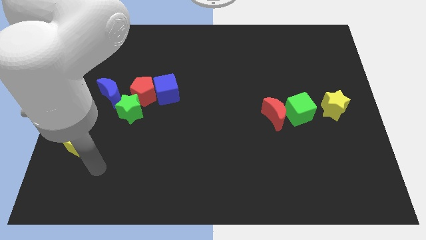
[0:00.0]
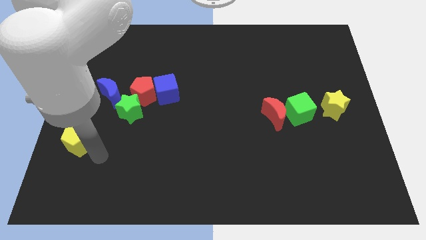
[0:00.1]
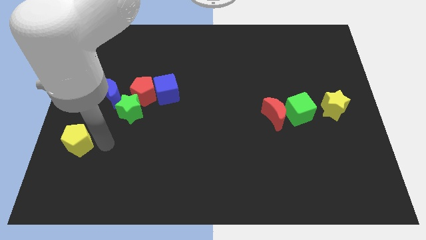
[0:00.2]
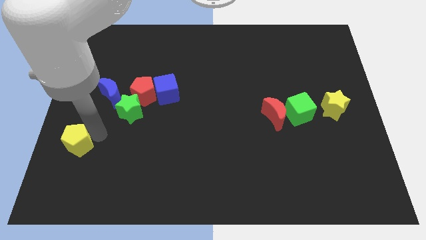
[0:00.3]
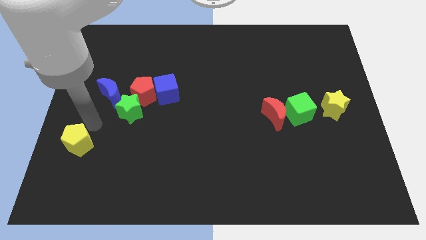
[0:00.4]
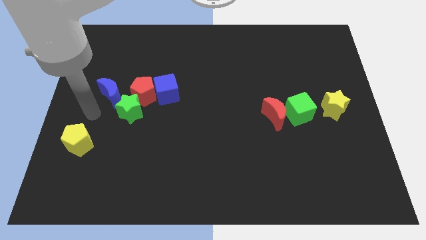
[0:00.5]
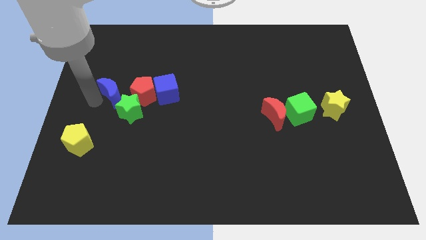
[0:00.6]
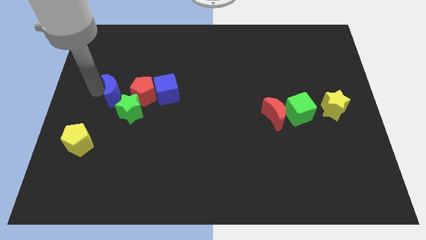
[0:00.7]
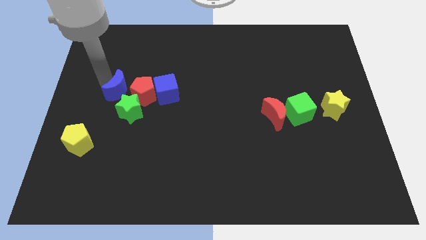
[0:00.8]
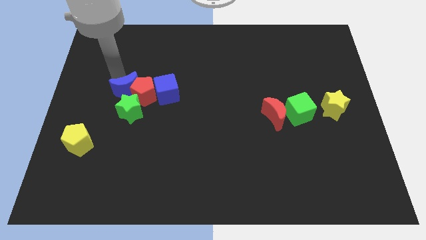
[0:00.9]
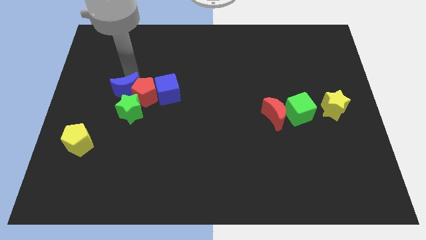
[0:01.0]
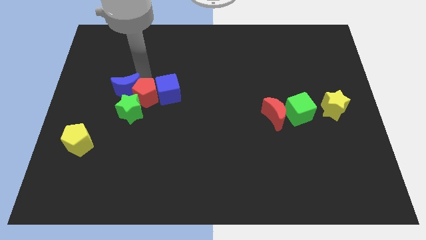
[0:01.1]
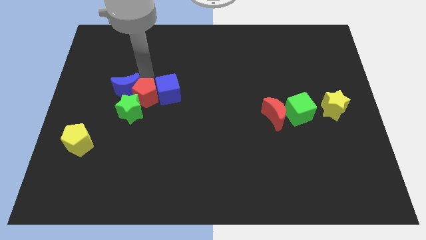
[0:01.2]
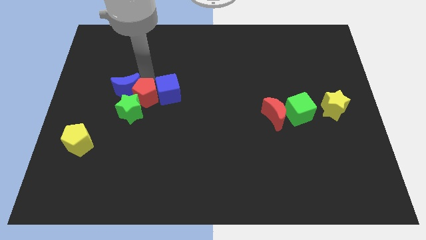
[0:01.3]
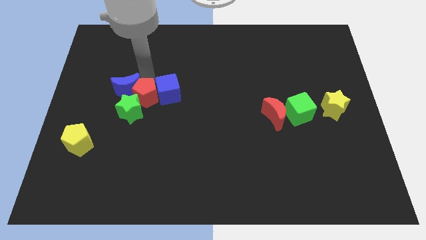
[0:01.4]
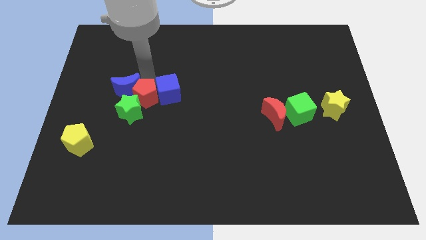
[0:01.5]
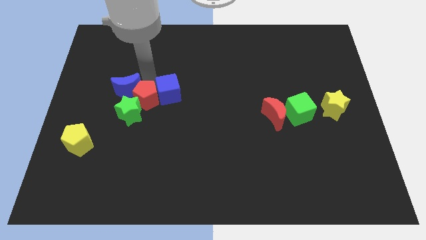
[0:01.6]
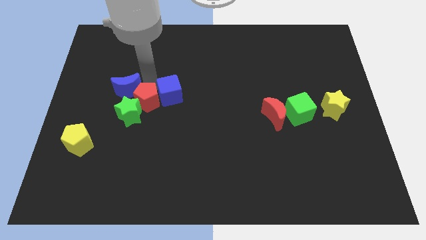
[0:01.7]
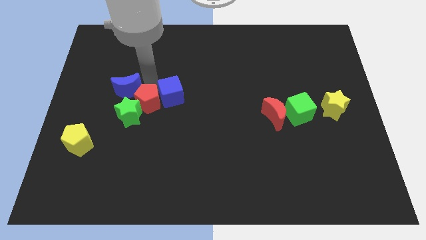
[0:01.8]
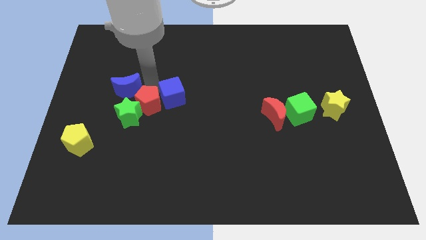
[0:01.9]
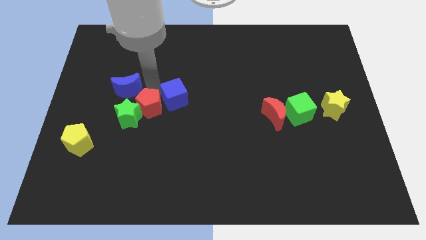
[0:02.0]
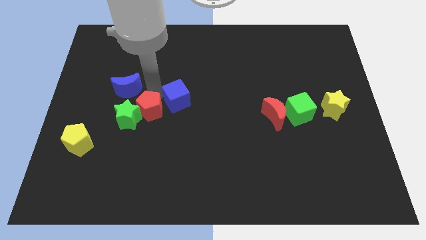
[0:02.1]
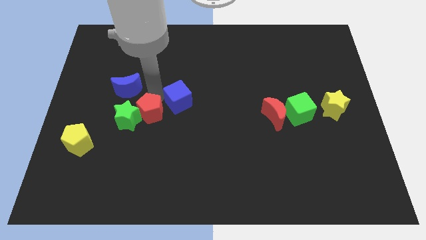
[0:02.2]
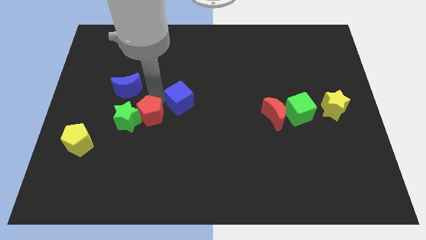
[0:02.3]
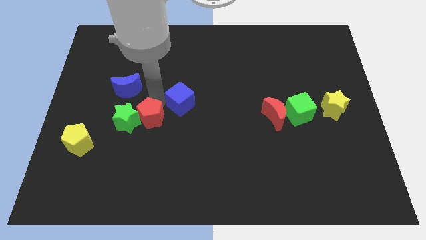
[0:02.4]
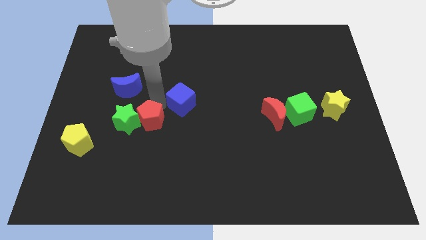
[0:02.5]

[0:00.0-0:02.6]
slightly move the red pentagon downwards

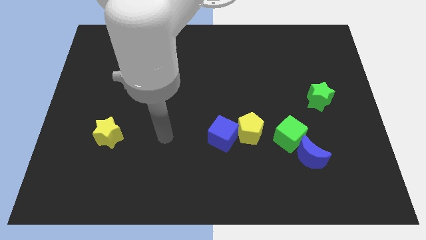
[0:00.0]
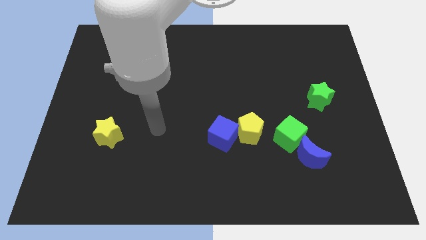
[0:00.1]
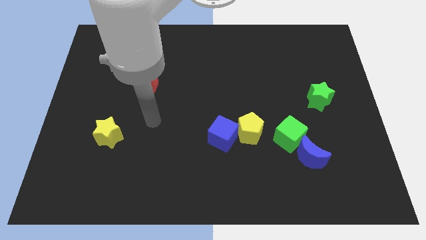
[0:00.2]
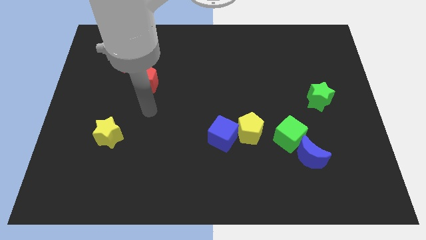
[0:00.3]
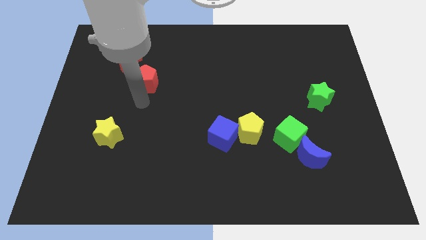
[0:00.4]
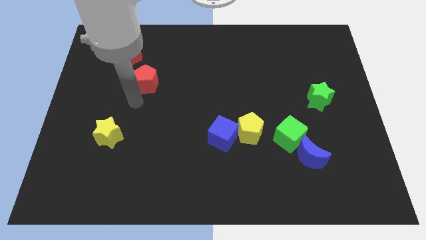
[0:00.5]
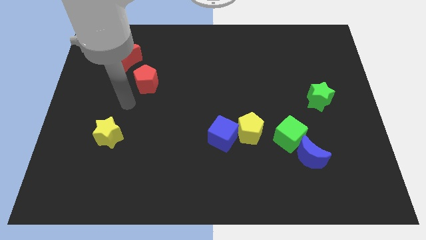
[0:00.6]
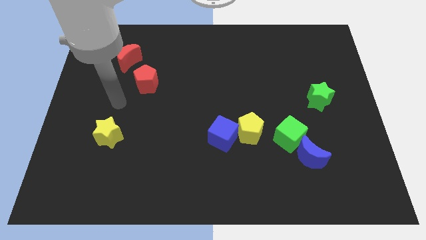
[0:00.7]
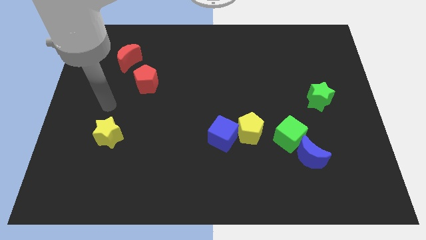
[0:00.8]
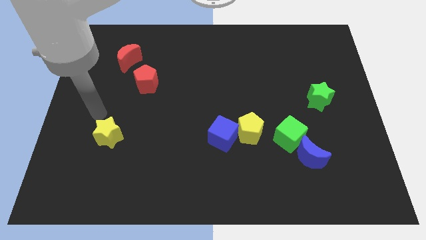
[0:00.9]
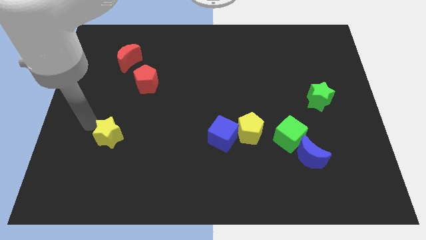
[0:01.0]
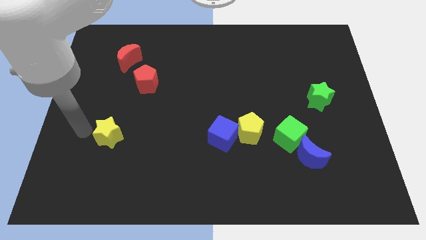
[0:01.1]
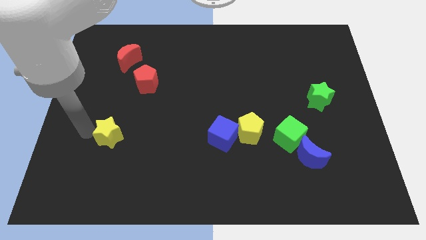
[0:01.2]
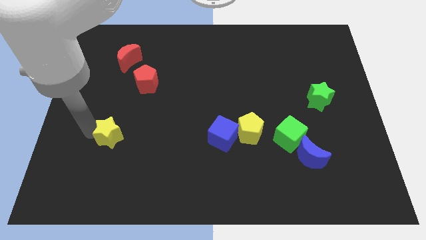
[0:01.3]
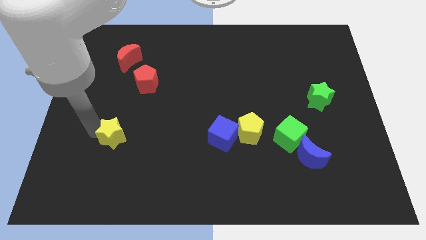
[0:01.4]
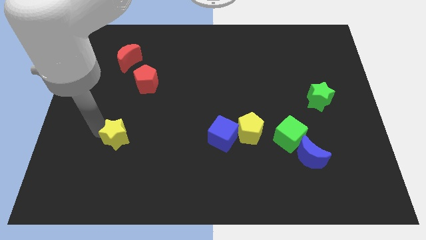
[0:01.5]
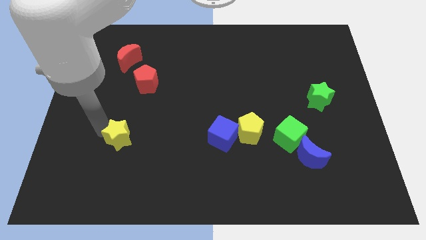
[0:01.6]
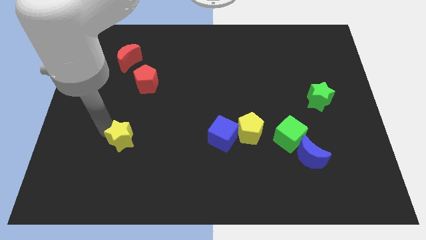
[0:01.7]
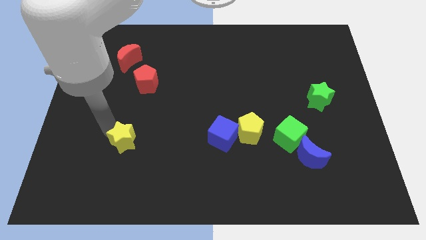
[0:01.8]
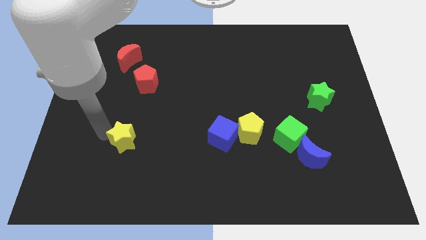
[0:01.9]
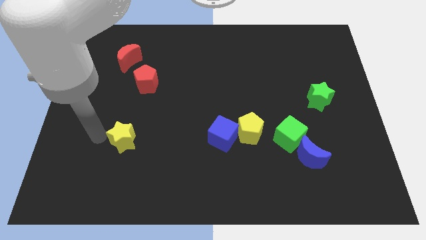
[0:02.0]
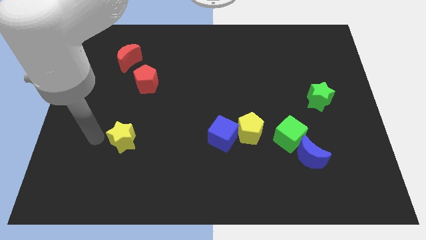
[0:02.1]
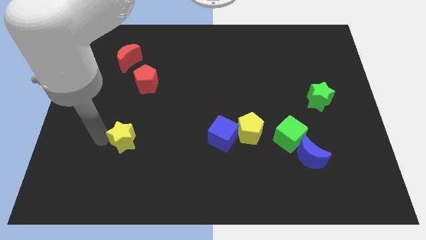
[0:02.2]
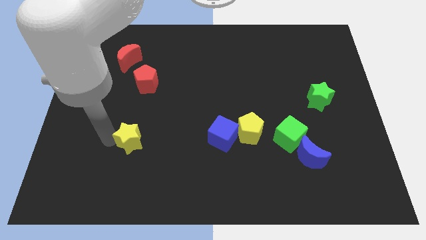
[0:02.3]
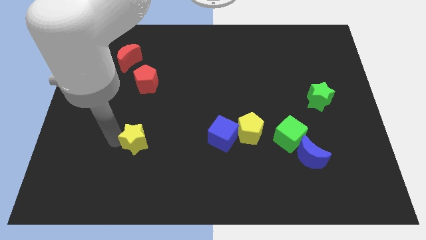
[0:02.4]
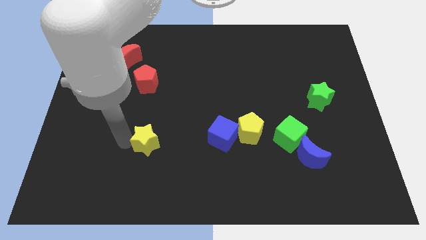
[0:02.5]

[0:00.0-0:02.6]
slightly slide the yellow star to the right

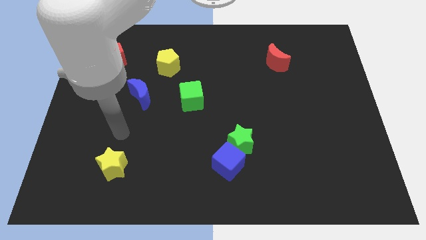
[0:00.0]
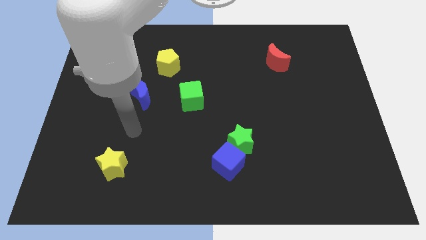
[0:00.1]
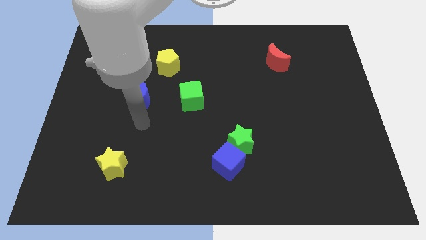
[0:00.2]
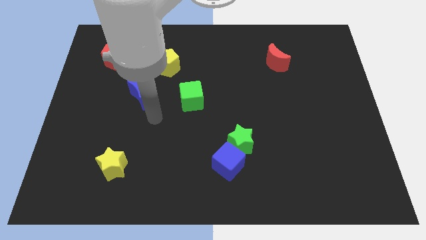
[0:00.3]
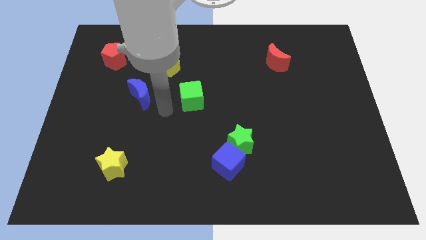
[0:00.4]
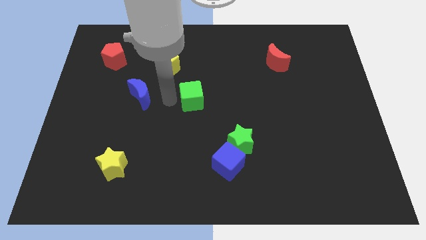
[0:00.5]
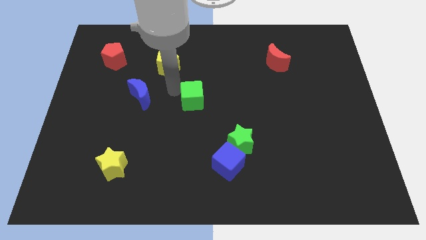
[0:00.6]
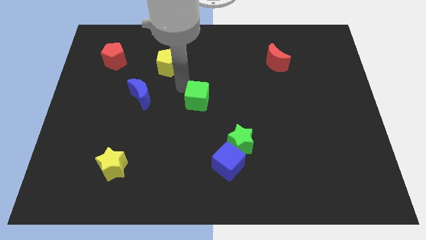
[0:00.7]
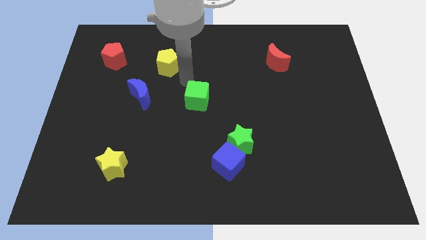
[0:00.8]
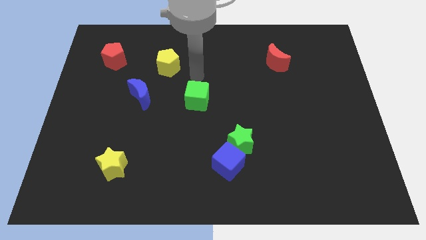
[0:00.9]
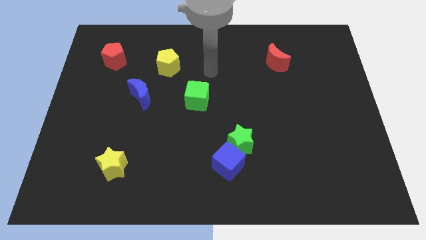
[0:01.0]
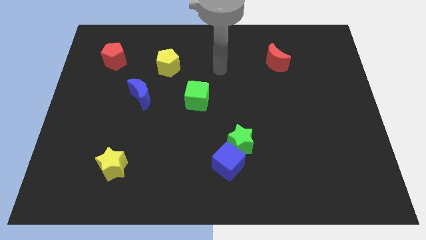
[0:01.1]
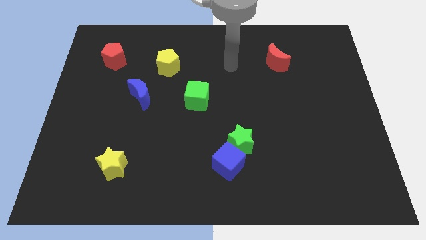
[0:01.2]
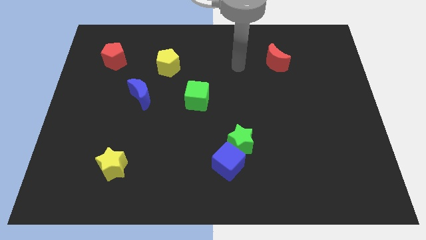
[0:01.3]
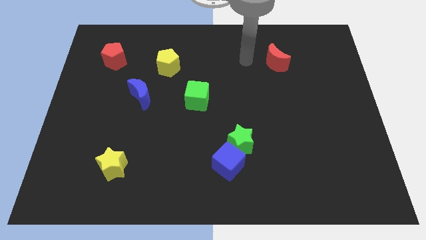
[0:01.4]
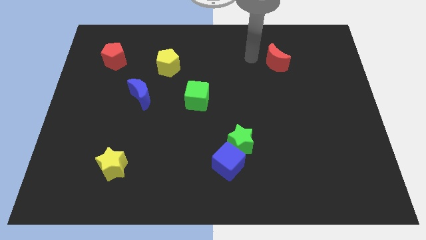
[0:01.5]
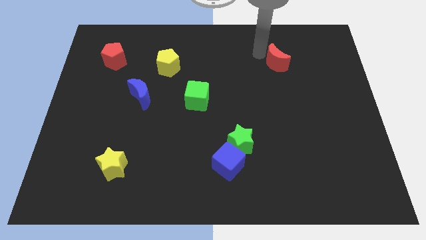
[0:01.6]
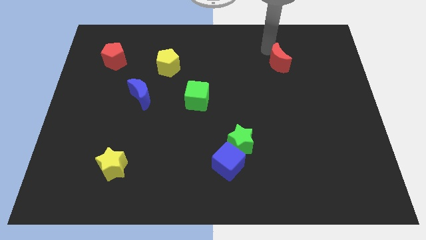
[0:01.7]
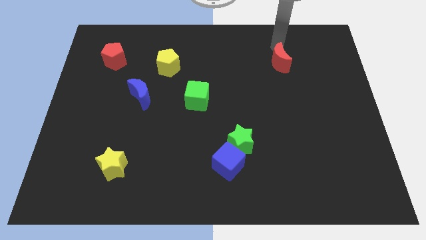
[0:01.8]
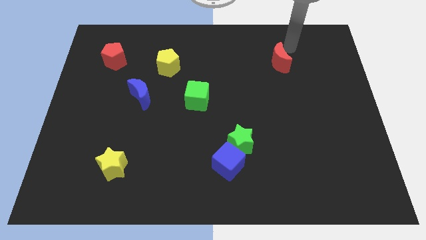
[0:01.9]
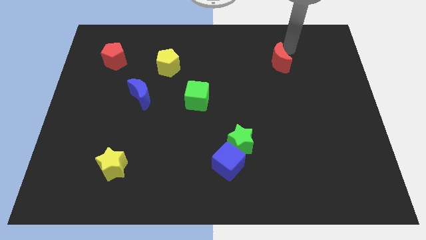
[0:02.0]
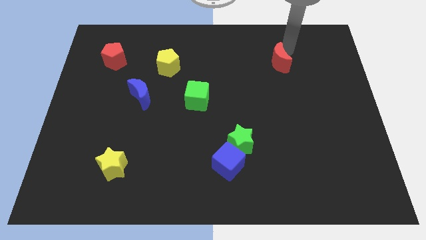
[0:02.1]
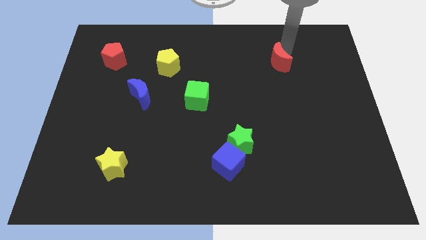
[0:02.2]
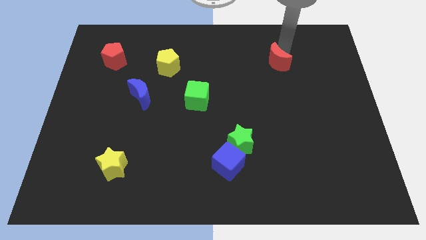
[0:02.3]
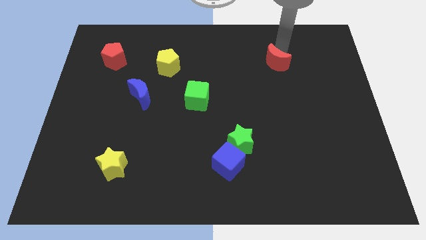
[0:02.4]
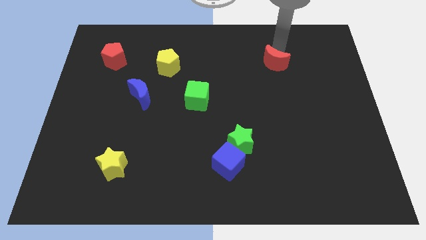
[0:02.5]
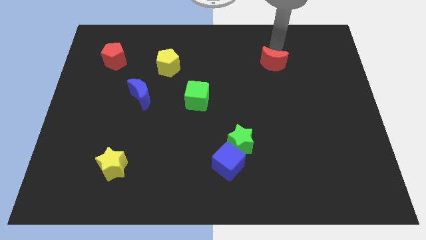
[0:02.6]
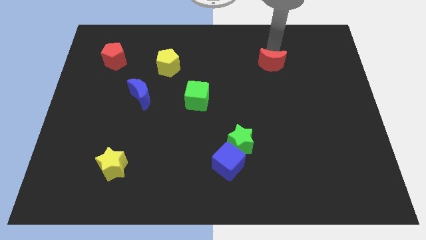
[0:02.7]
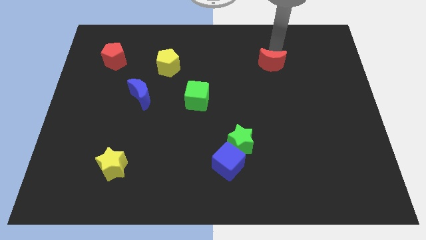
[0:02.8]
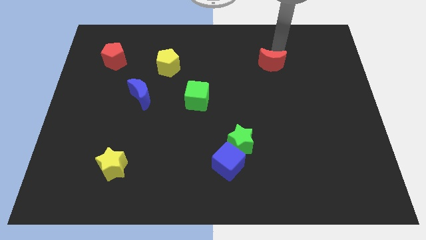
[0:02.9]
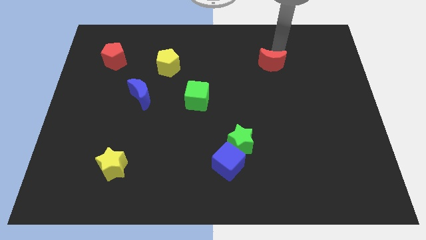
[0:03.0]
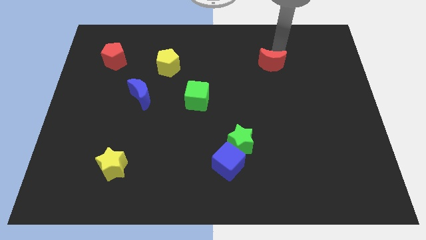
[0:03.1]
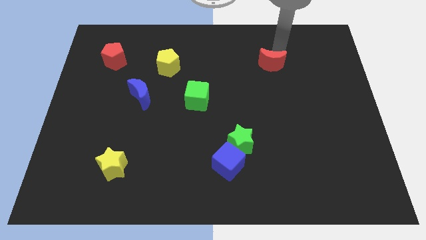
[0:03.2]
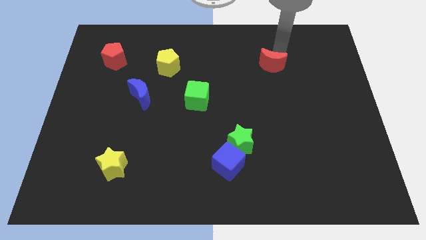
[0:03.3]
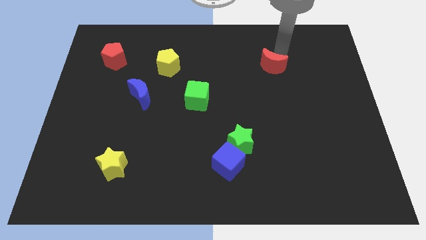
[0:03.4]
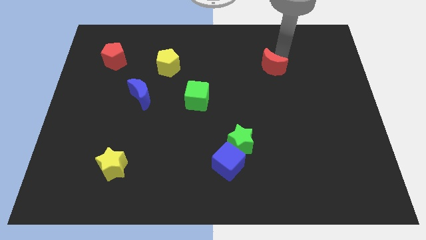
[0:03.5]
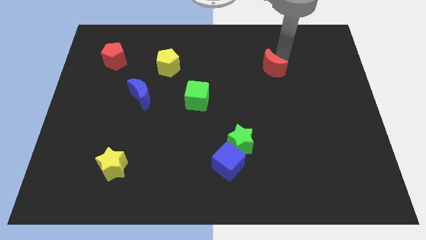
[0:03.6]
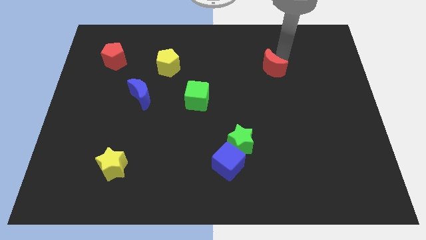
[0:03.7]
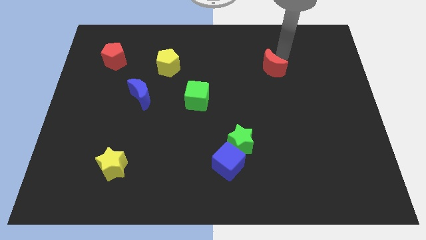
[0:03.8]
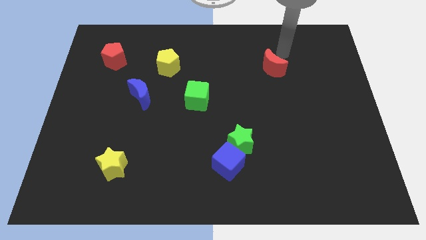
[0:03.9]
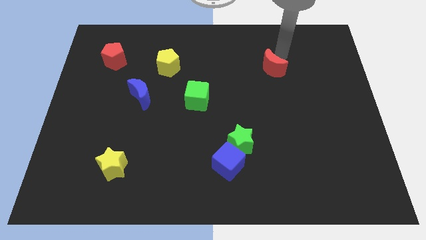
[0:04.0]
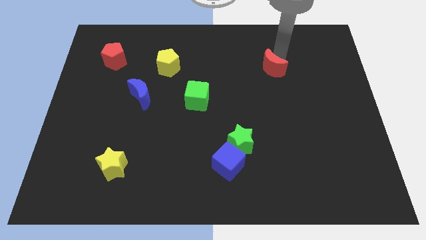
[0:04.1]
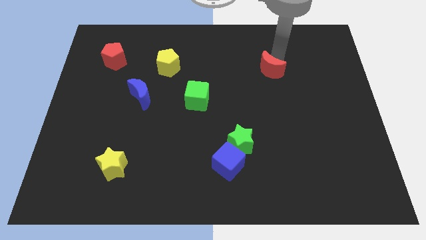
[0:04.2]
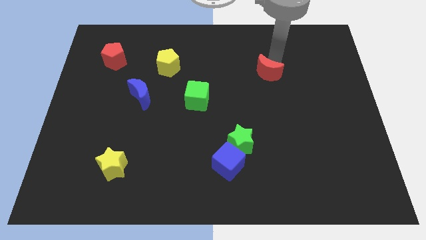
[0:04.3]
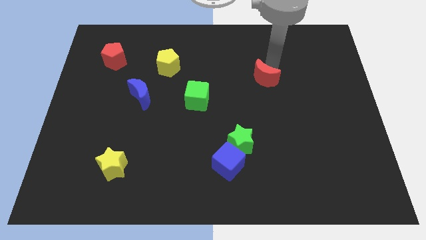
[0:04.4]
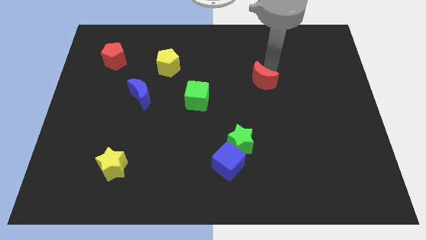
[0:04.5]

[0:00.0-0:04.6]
push the red moon diagonally down and to the left somewhat
